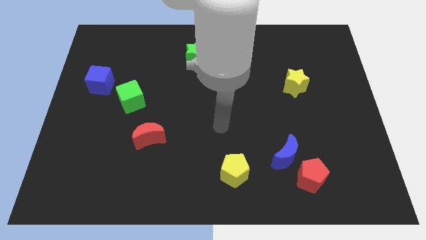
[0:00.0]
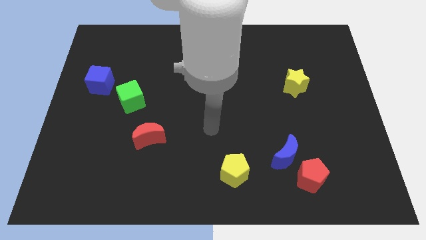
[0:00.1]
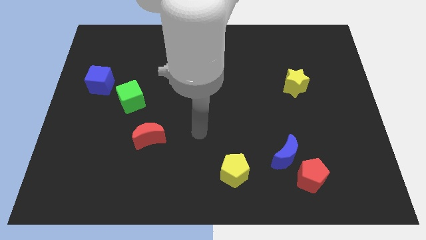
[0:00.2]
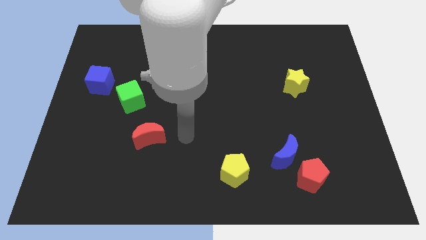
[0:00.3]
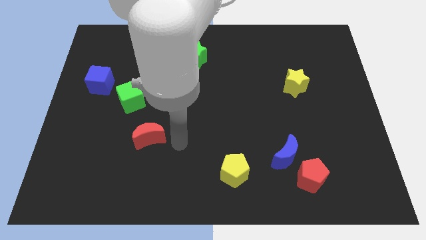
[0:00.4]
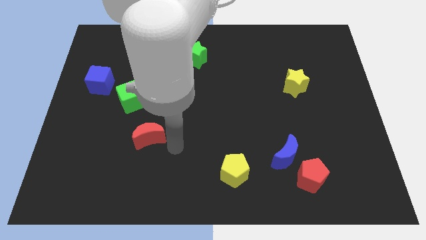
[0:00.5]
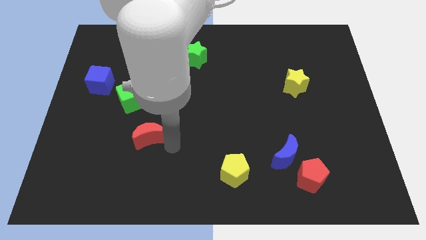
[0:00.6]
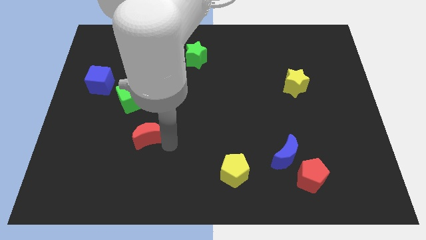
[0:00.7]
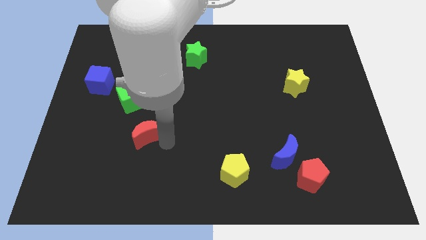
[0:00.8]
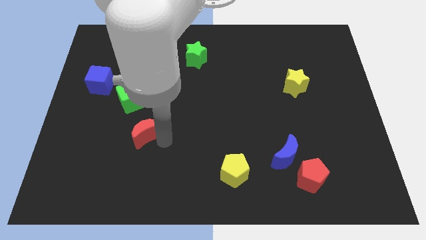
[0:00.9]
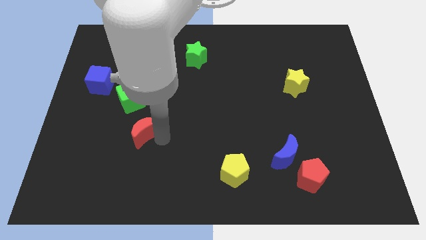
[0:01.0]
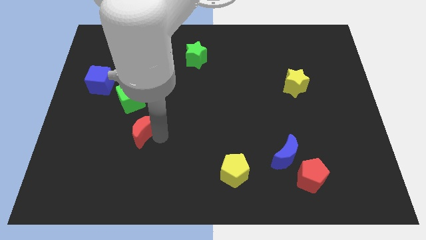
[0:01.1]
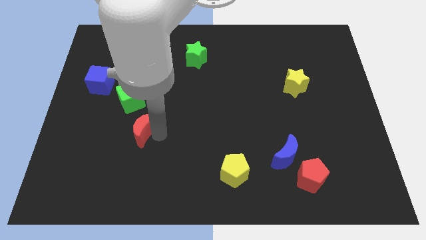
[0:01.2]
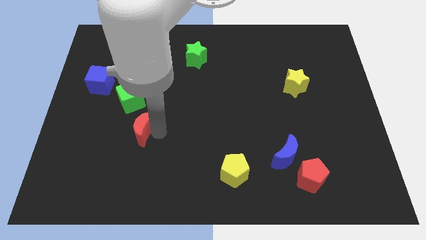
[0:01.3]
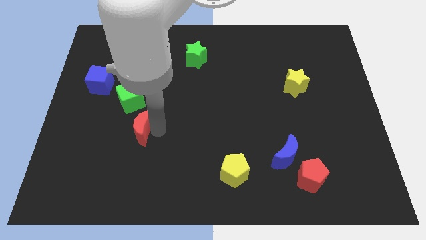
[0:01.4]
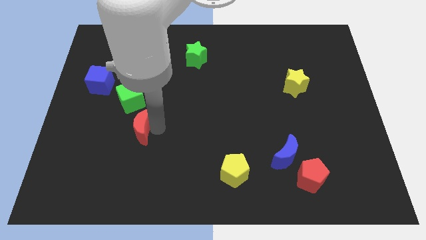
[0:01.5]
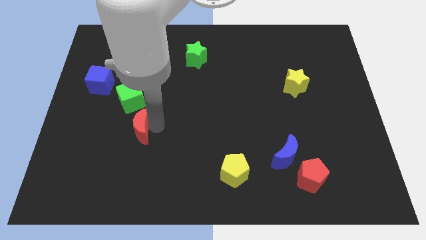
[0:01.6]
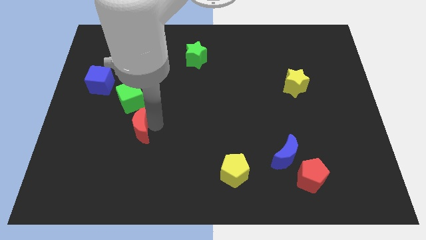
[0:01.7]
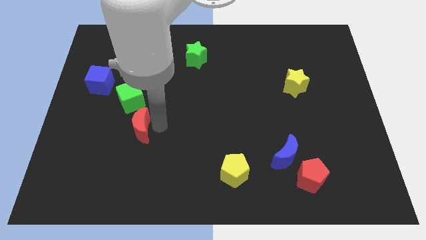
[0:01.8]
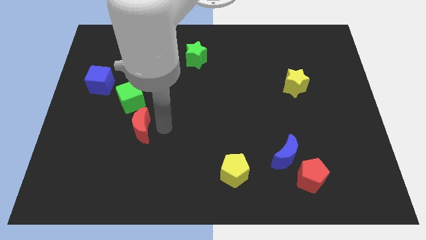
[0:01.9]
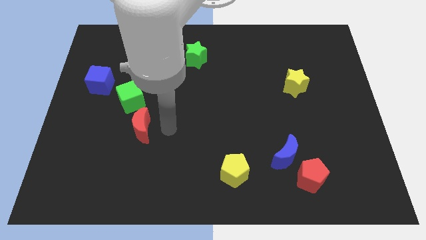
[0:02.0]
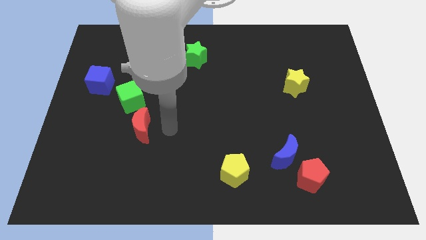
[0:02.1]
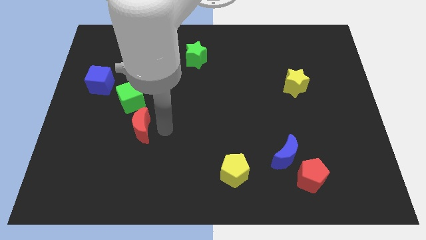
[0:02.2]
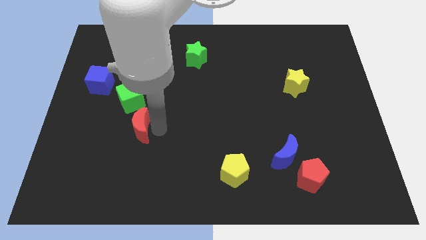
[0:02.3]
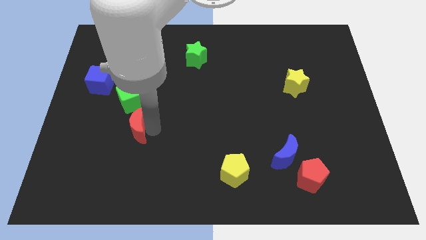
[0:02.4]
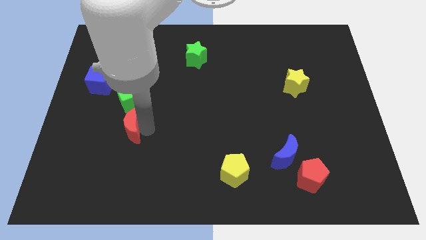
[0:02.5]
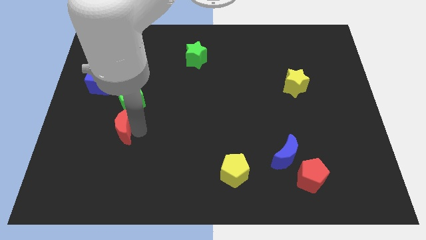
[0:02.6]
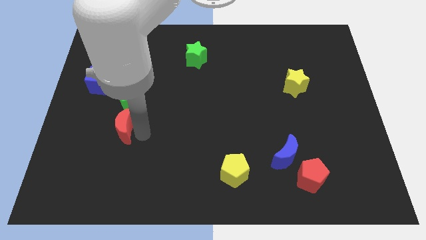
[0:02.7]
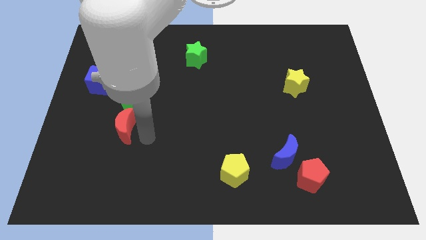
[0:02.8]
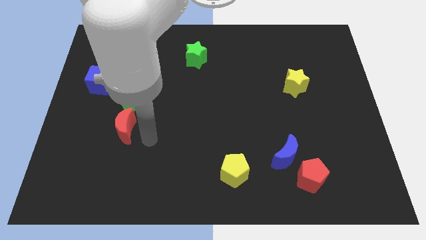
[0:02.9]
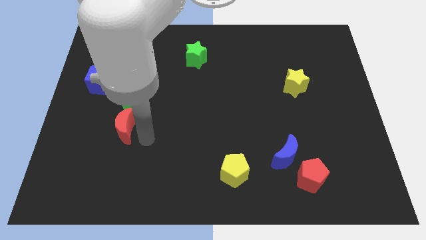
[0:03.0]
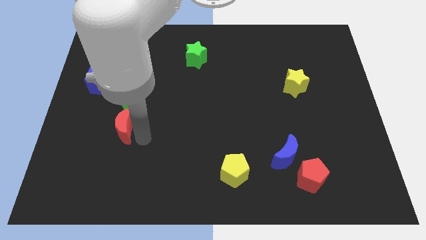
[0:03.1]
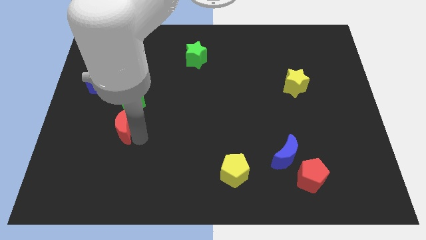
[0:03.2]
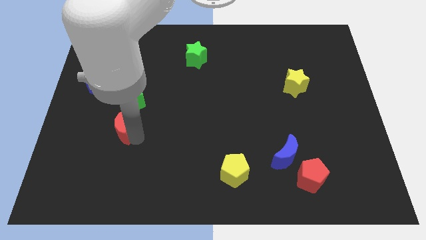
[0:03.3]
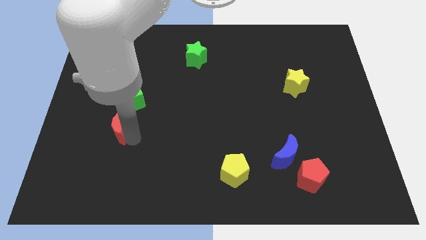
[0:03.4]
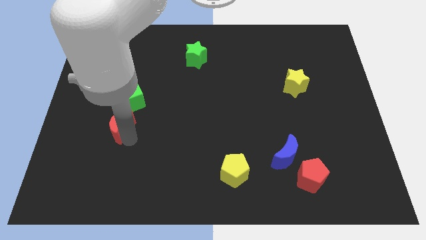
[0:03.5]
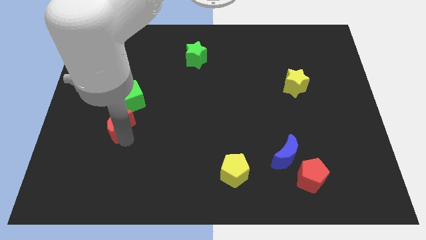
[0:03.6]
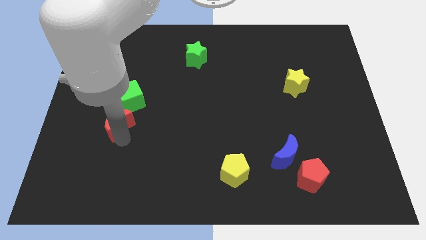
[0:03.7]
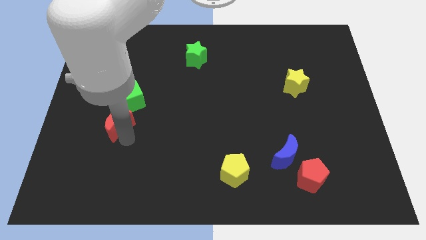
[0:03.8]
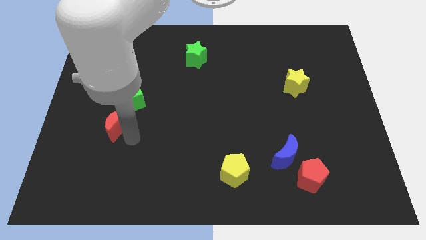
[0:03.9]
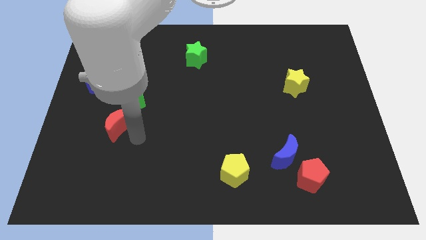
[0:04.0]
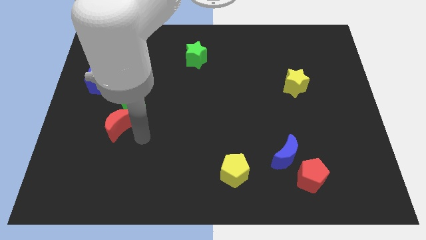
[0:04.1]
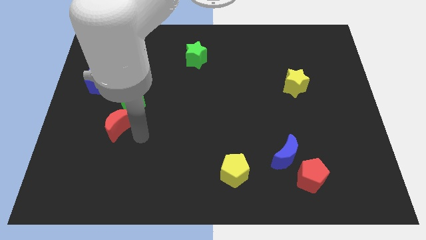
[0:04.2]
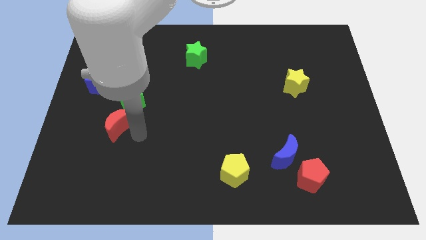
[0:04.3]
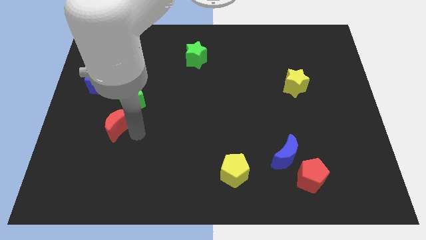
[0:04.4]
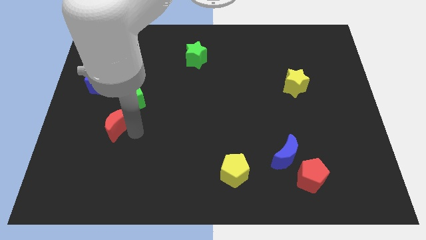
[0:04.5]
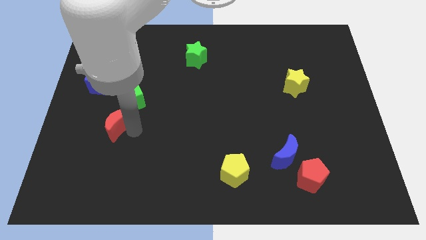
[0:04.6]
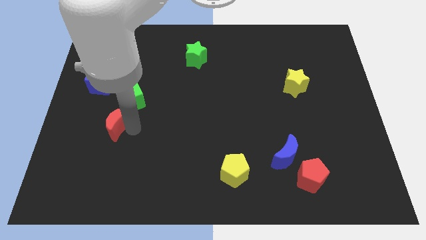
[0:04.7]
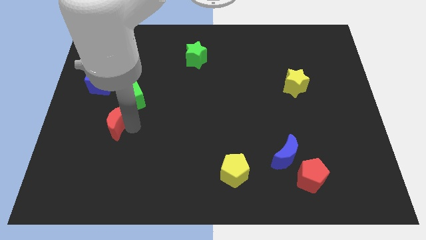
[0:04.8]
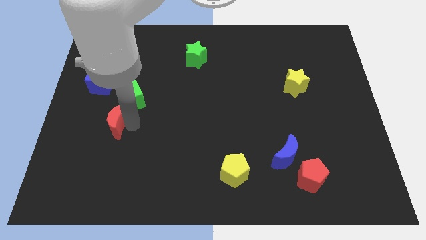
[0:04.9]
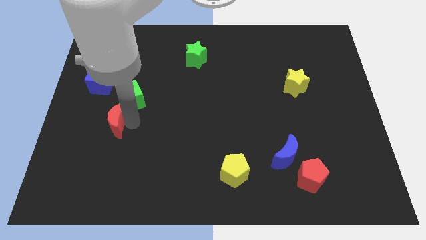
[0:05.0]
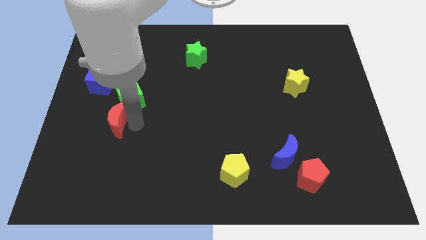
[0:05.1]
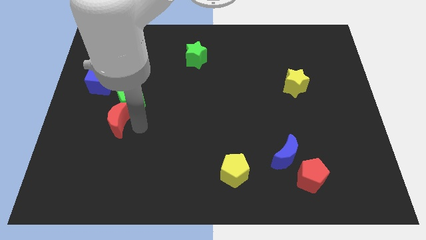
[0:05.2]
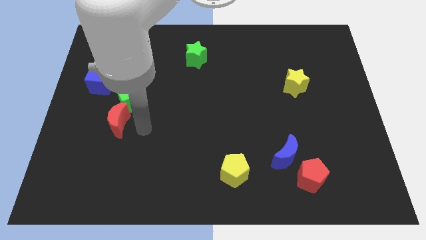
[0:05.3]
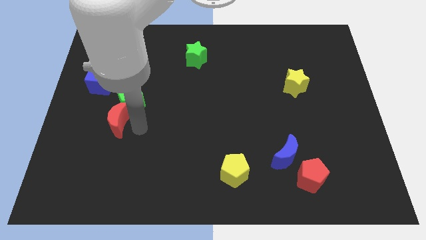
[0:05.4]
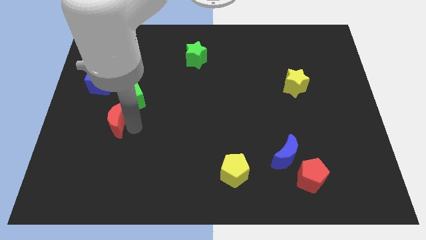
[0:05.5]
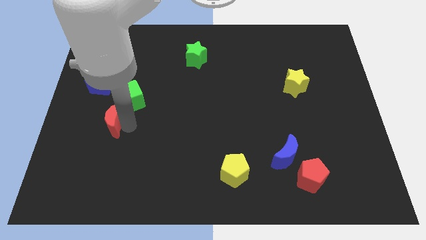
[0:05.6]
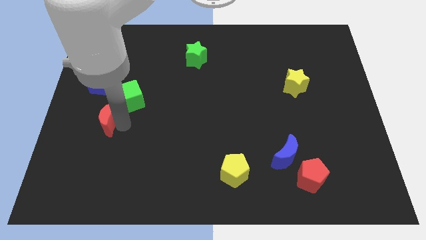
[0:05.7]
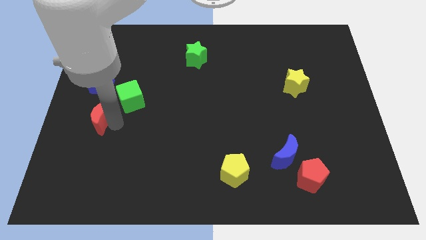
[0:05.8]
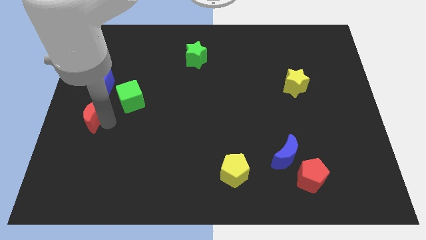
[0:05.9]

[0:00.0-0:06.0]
move the red moon to the left side of the board

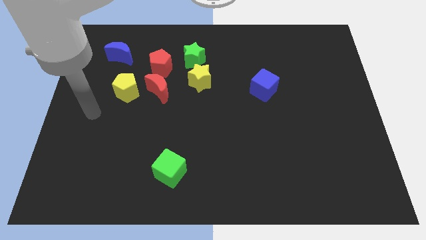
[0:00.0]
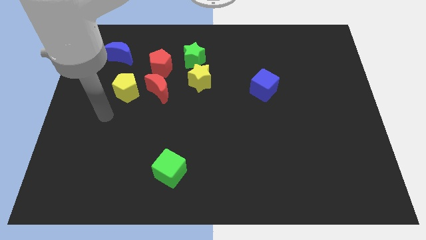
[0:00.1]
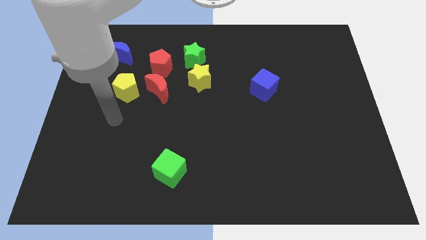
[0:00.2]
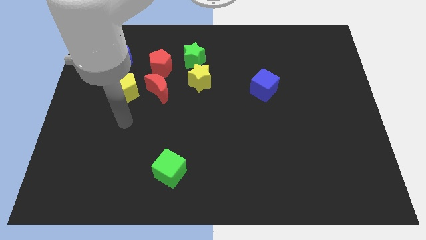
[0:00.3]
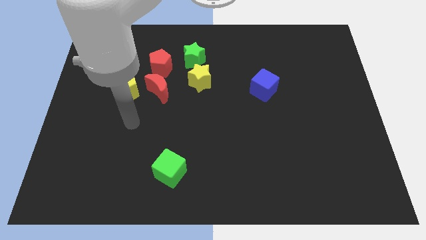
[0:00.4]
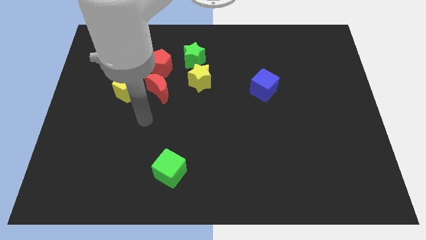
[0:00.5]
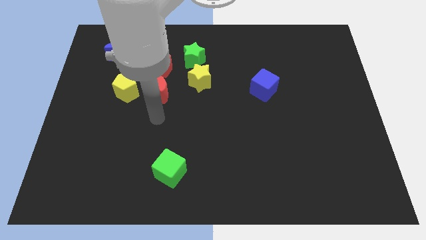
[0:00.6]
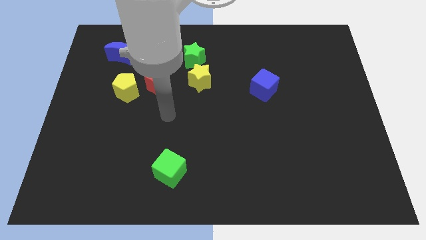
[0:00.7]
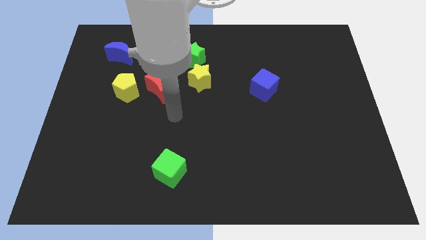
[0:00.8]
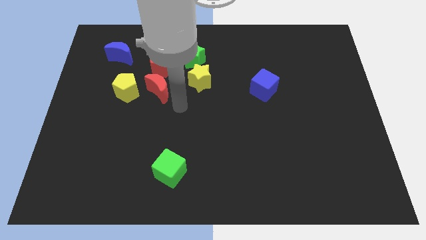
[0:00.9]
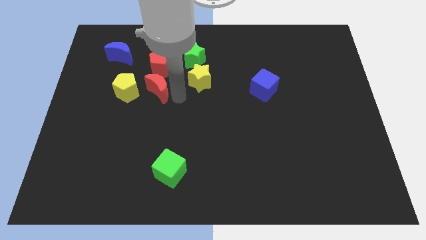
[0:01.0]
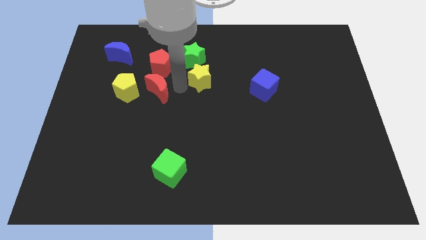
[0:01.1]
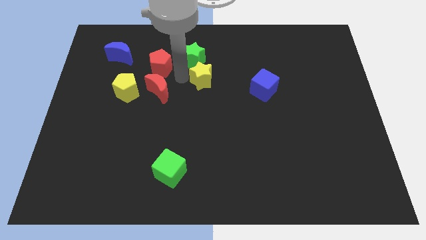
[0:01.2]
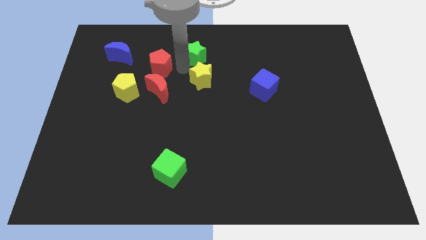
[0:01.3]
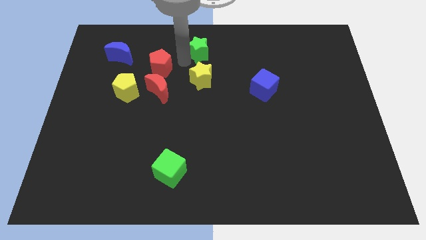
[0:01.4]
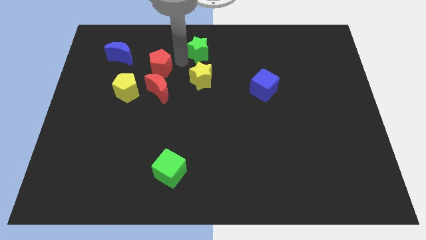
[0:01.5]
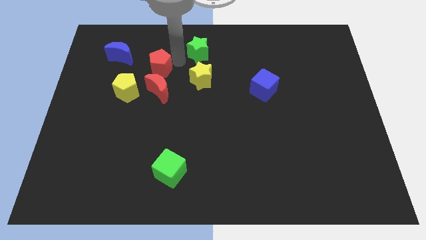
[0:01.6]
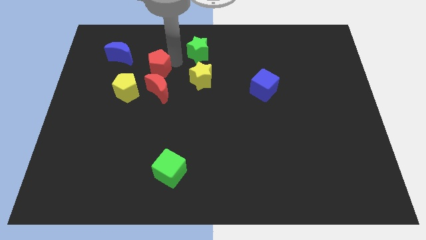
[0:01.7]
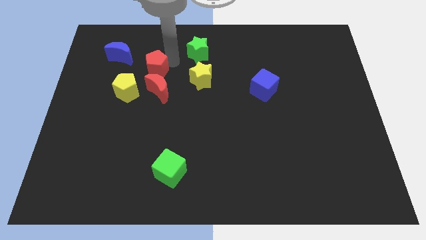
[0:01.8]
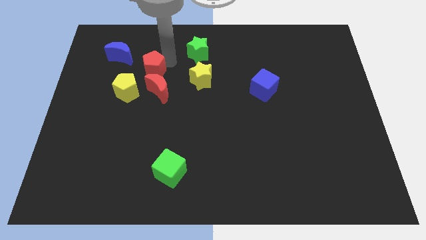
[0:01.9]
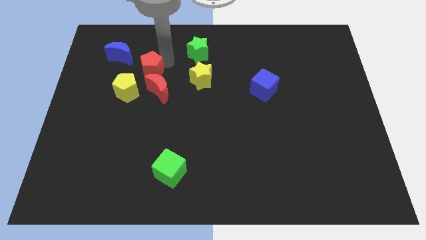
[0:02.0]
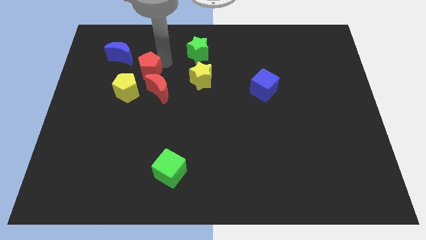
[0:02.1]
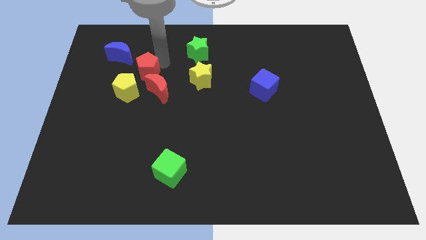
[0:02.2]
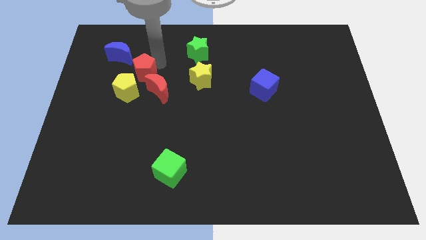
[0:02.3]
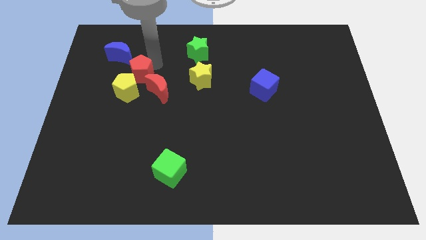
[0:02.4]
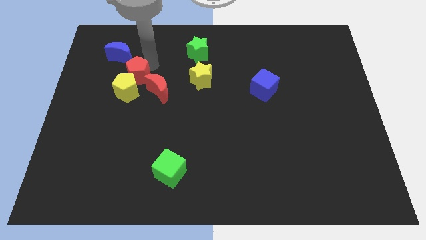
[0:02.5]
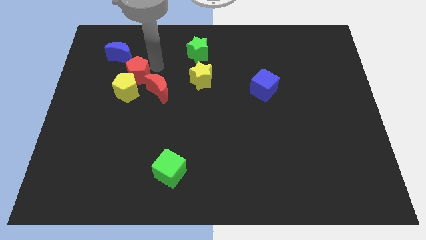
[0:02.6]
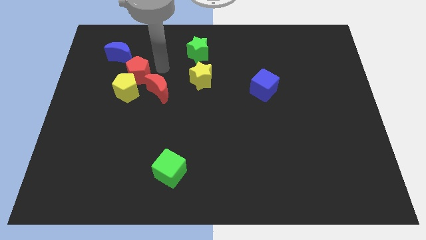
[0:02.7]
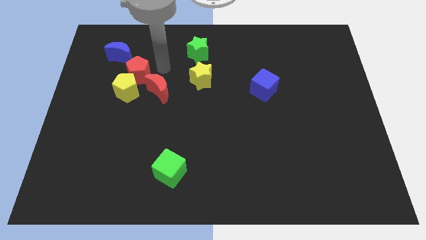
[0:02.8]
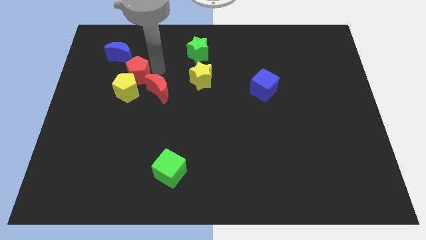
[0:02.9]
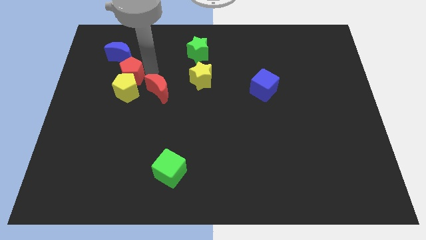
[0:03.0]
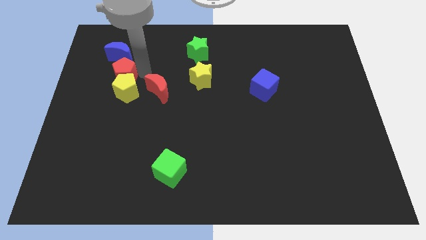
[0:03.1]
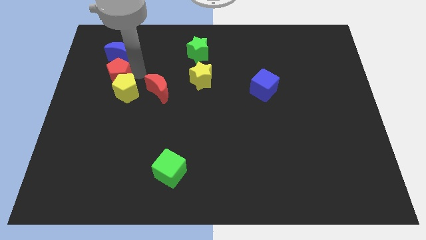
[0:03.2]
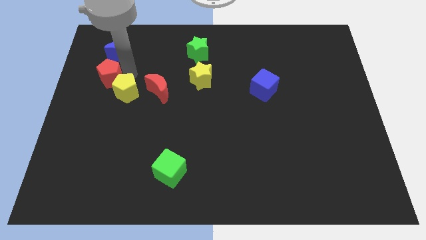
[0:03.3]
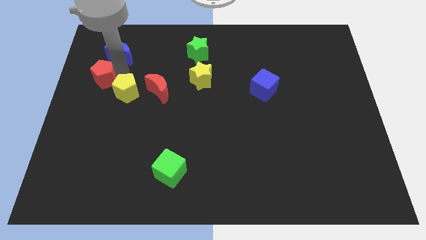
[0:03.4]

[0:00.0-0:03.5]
move the red pentagon to the center left
